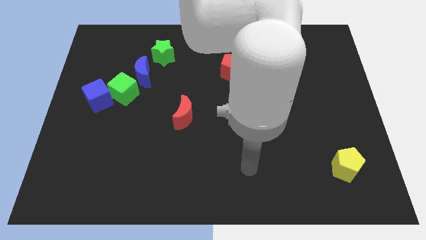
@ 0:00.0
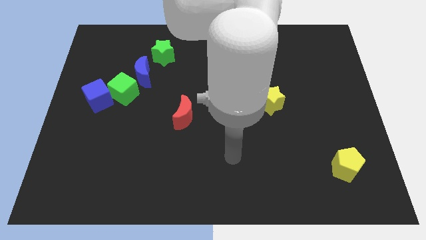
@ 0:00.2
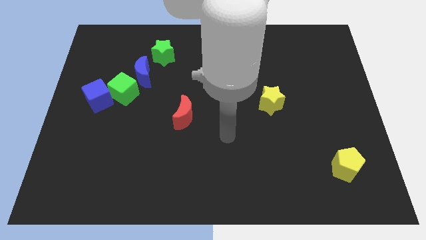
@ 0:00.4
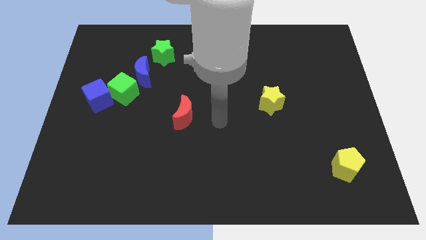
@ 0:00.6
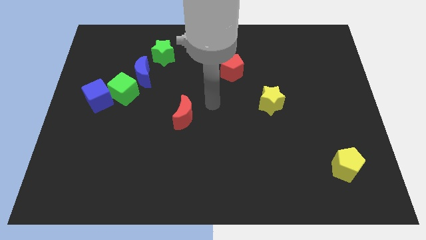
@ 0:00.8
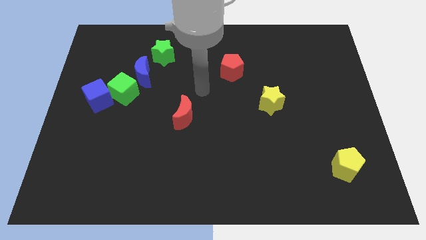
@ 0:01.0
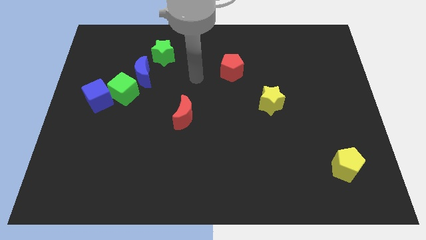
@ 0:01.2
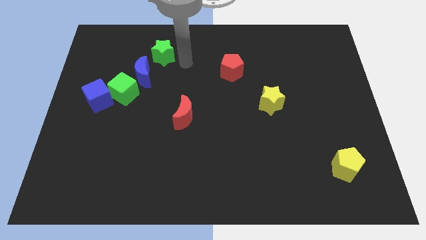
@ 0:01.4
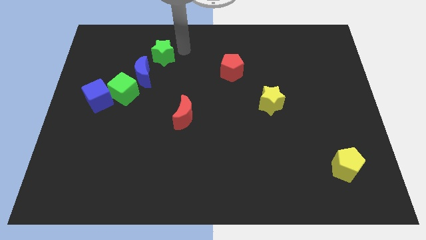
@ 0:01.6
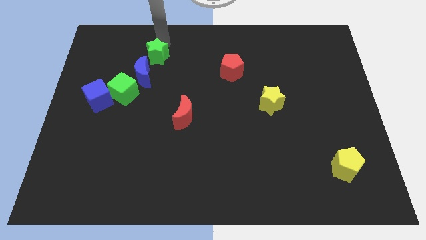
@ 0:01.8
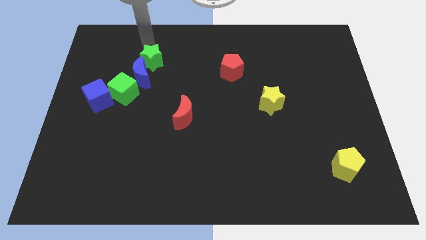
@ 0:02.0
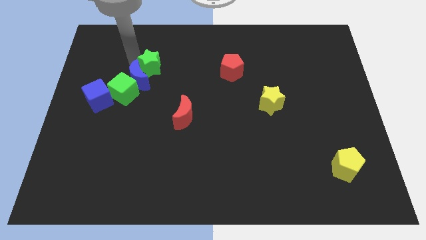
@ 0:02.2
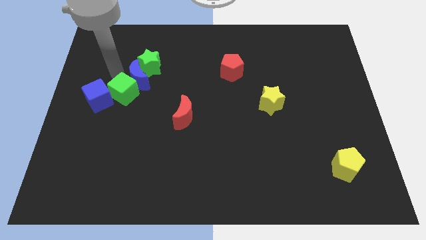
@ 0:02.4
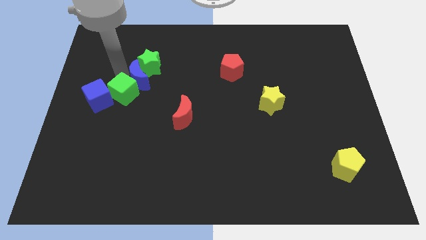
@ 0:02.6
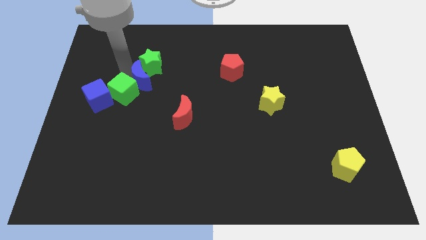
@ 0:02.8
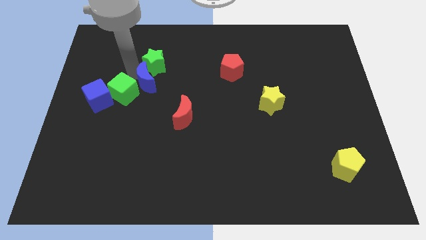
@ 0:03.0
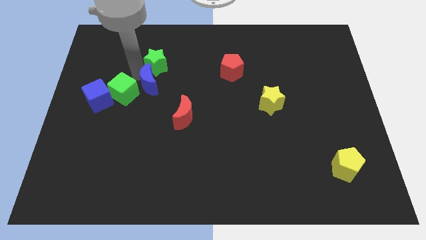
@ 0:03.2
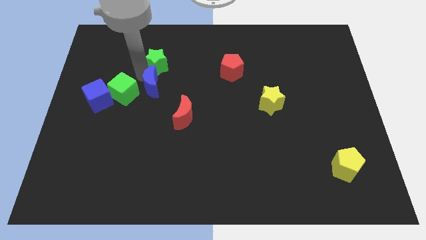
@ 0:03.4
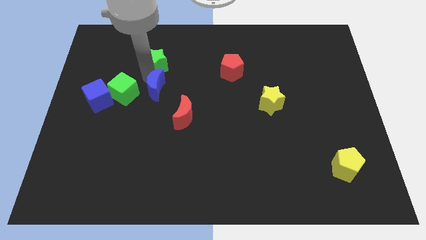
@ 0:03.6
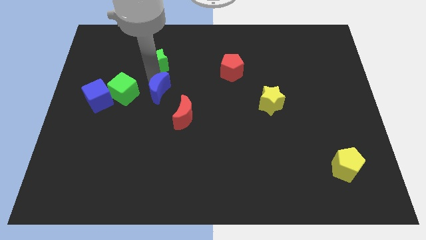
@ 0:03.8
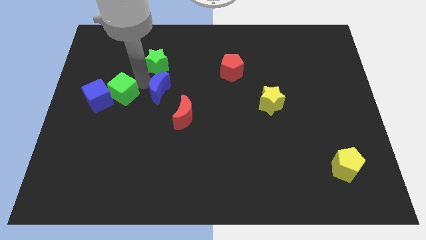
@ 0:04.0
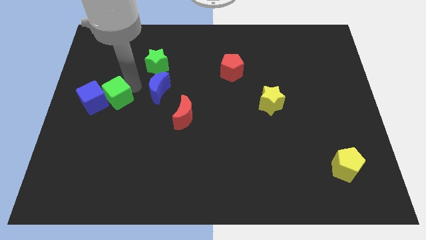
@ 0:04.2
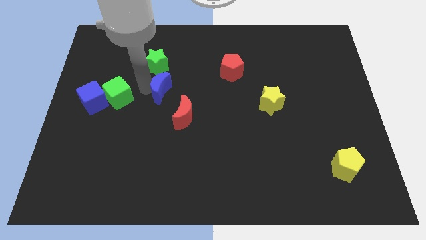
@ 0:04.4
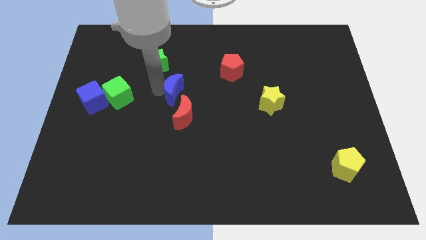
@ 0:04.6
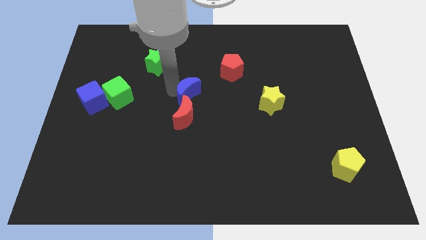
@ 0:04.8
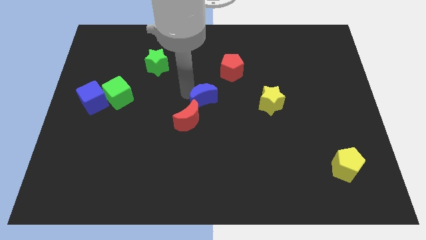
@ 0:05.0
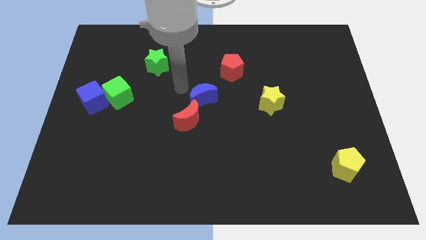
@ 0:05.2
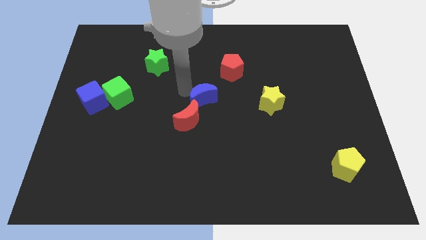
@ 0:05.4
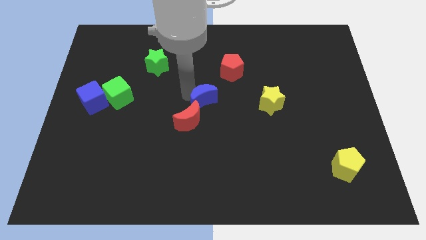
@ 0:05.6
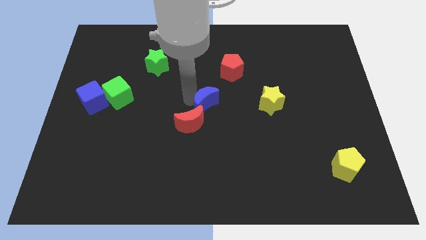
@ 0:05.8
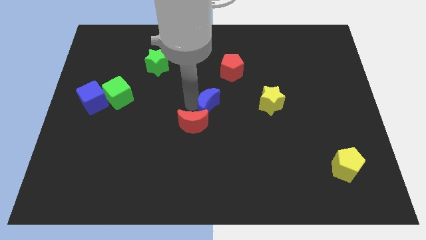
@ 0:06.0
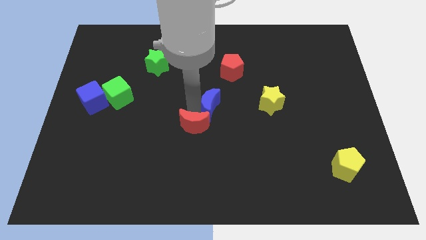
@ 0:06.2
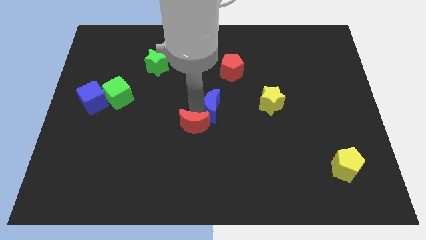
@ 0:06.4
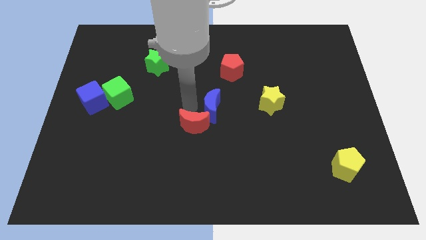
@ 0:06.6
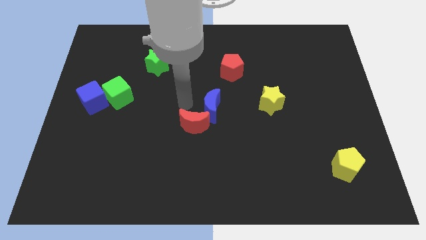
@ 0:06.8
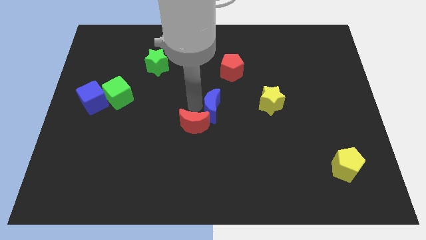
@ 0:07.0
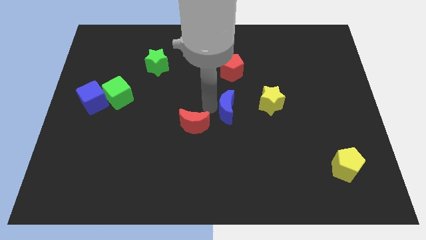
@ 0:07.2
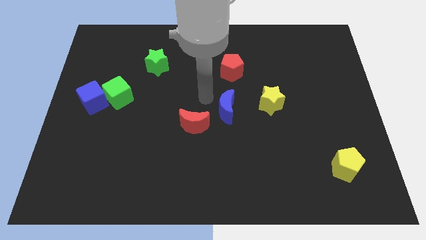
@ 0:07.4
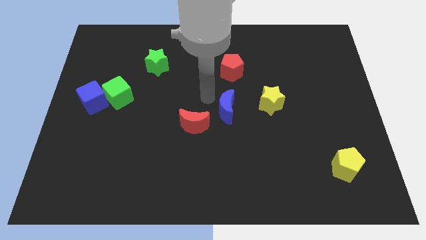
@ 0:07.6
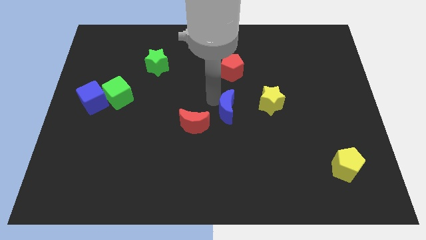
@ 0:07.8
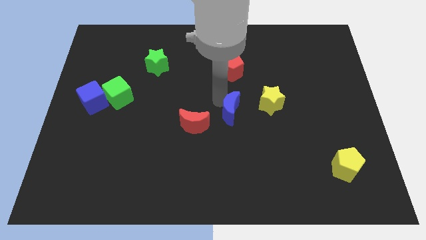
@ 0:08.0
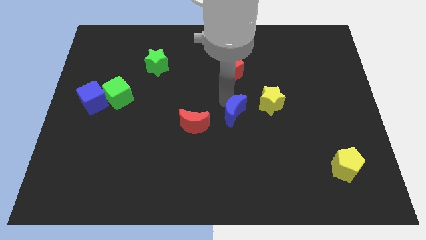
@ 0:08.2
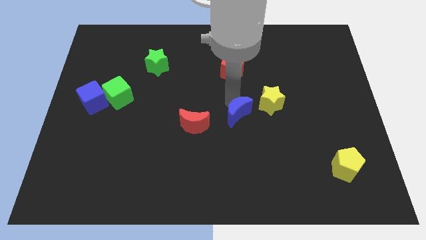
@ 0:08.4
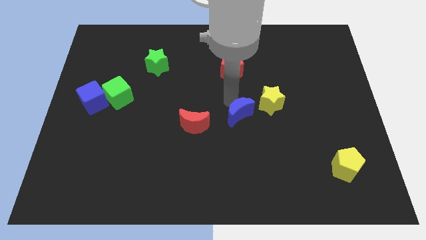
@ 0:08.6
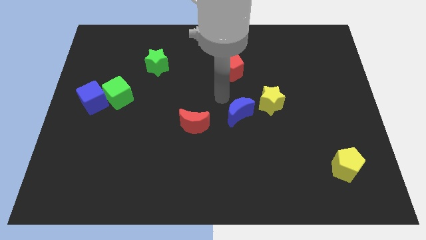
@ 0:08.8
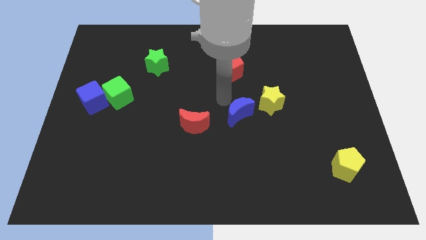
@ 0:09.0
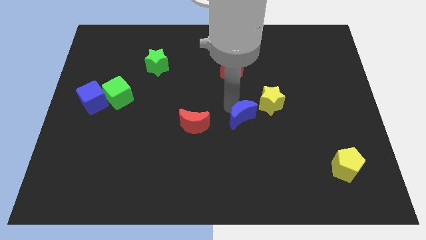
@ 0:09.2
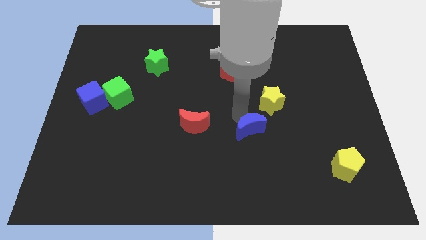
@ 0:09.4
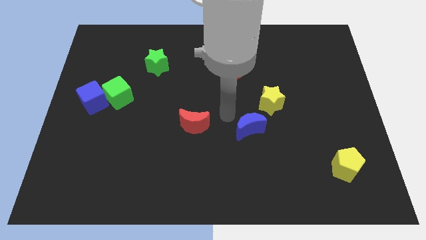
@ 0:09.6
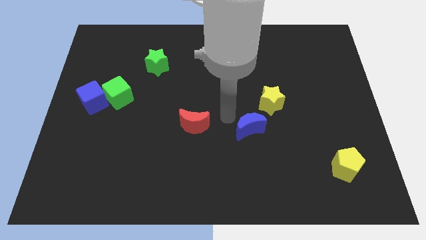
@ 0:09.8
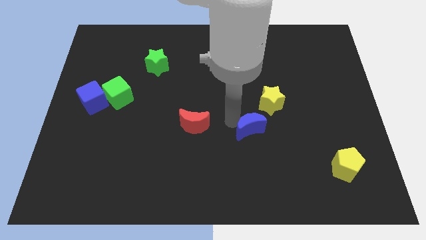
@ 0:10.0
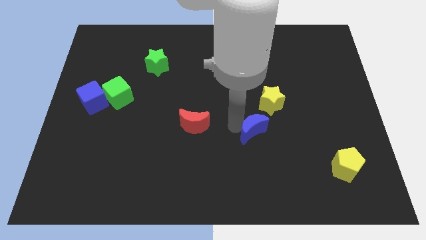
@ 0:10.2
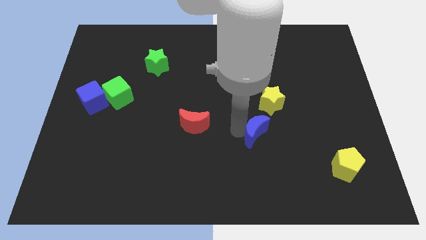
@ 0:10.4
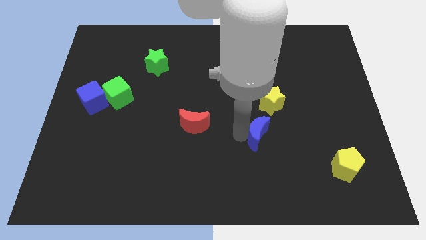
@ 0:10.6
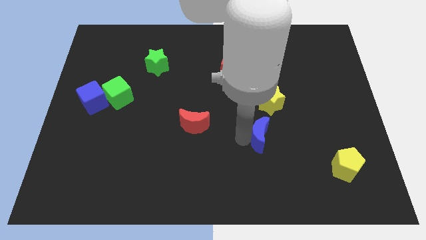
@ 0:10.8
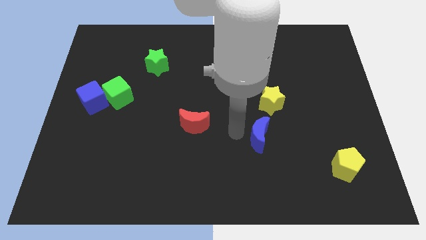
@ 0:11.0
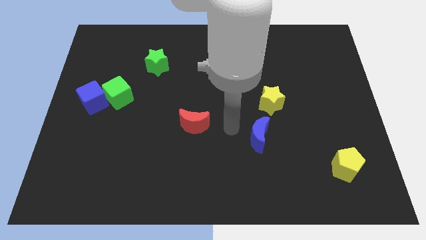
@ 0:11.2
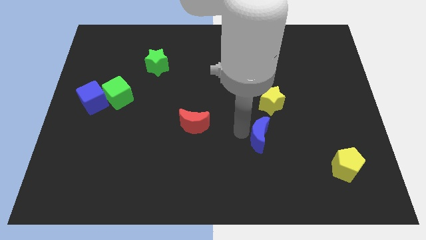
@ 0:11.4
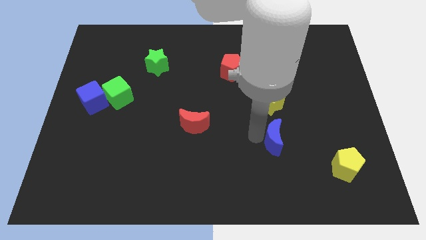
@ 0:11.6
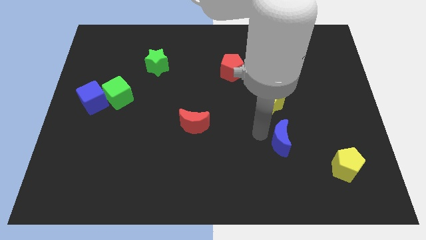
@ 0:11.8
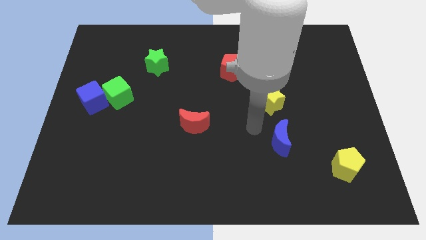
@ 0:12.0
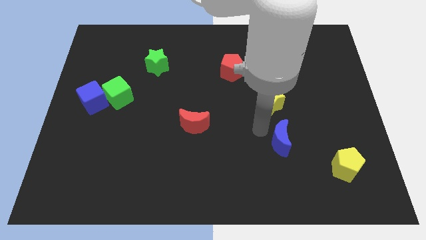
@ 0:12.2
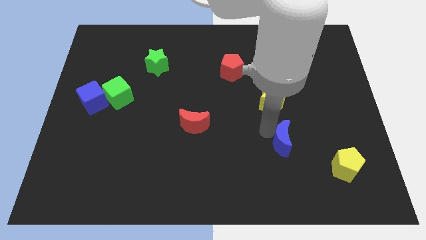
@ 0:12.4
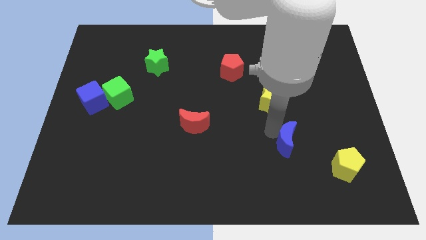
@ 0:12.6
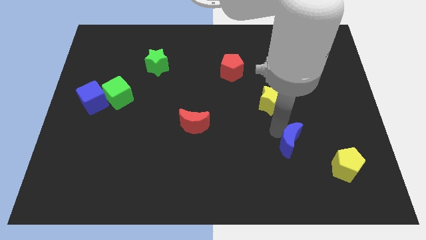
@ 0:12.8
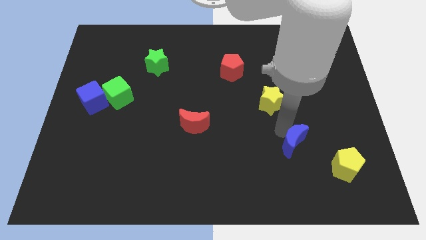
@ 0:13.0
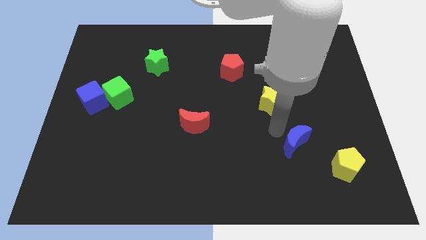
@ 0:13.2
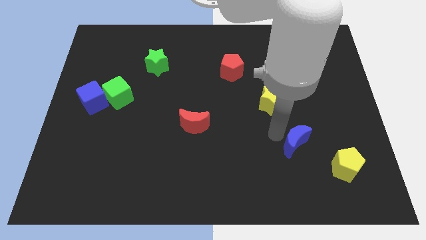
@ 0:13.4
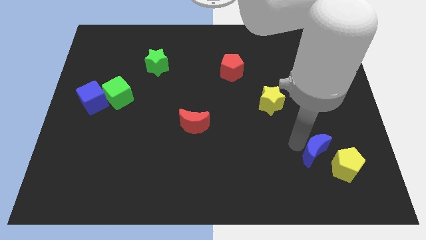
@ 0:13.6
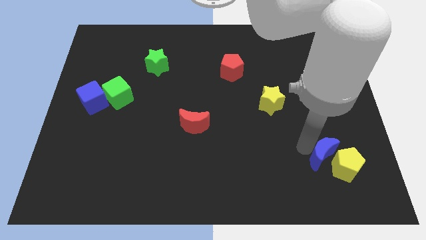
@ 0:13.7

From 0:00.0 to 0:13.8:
slide the blue moon to the yellow pentagon
